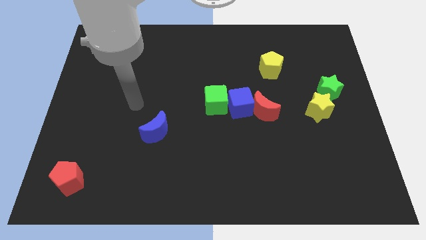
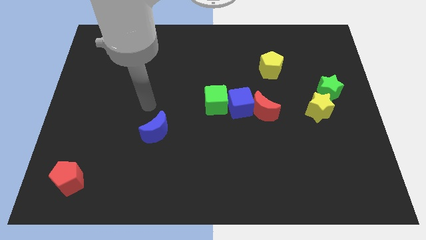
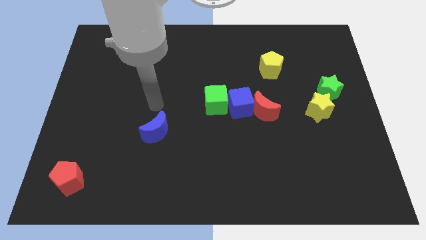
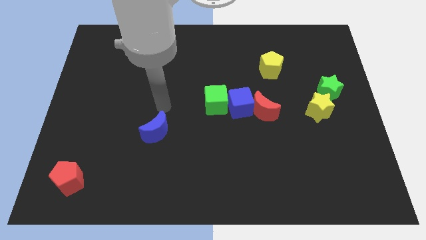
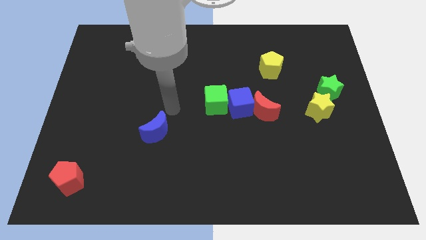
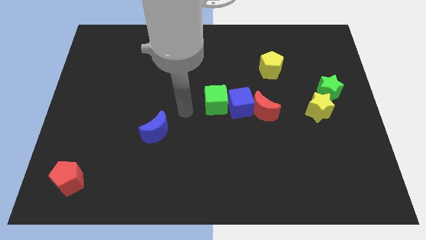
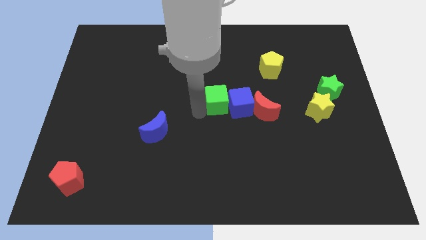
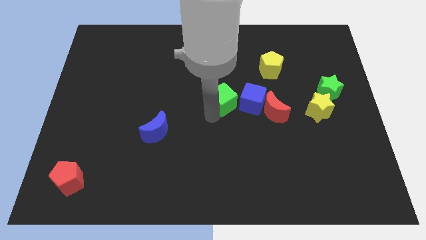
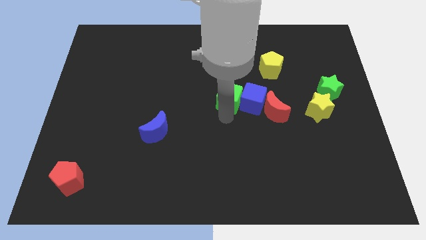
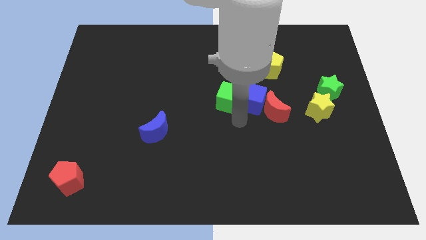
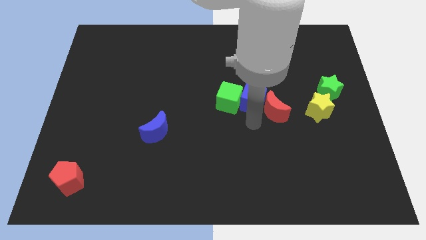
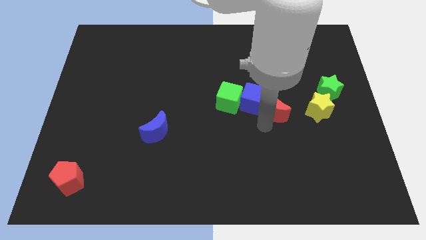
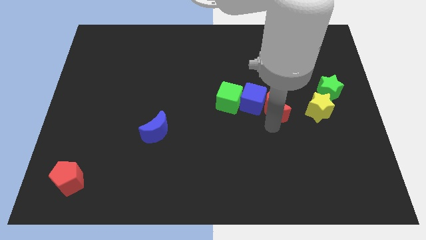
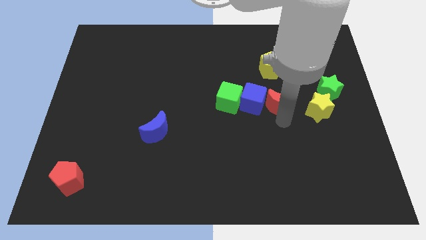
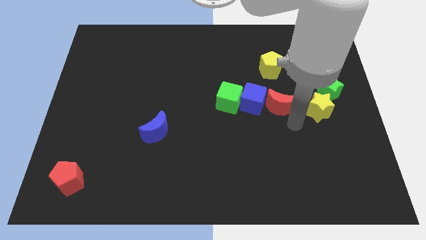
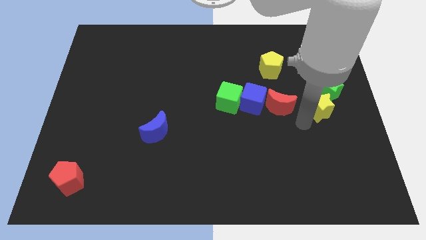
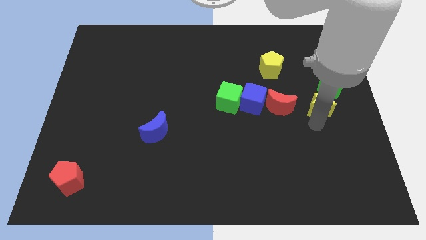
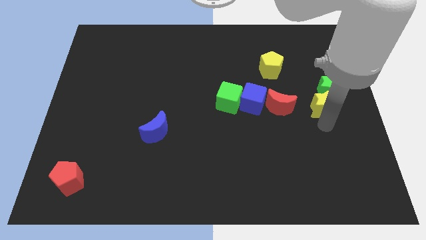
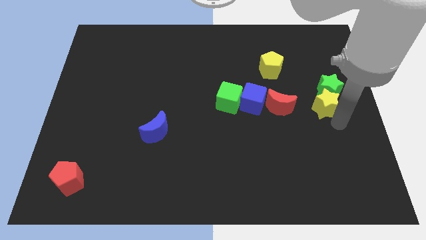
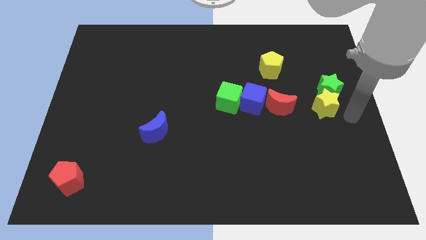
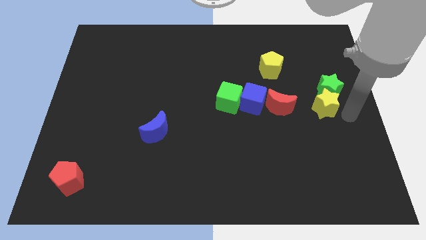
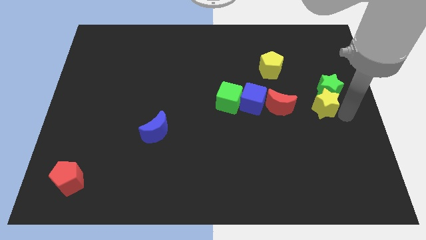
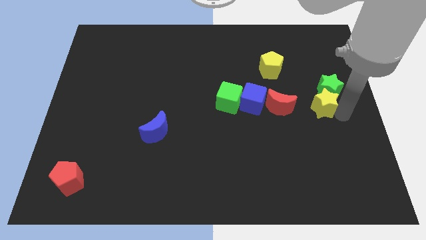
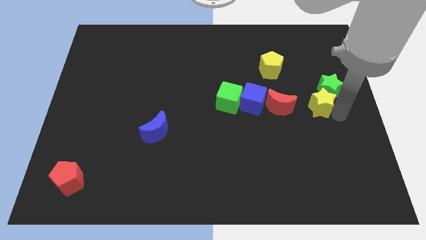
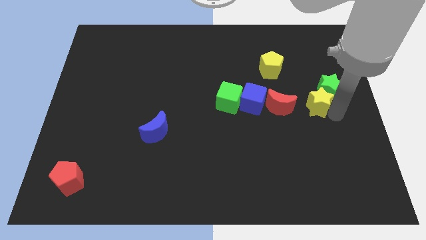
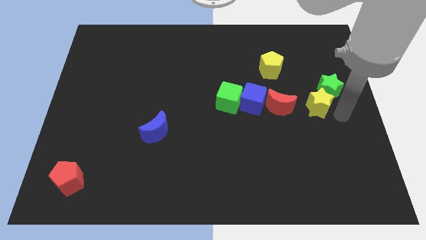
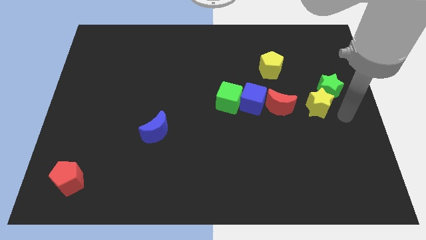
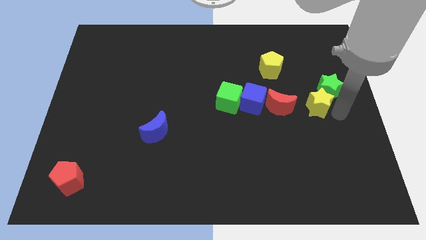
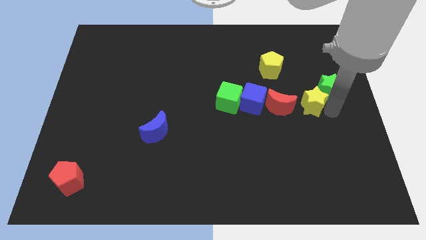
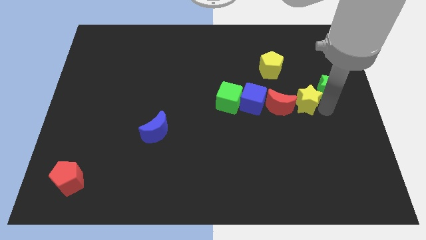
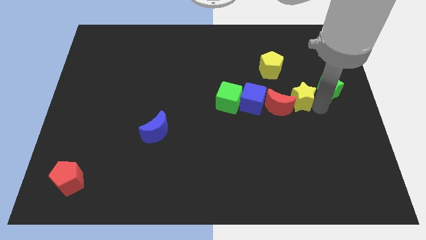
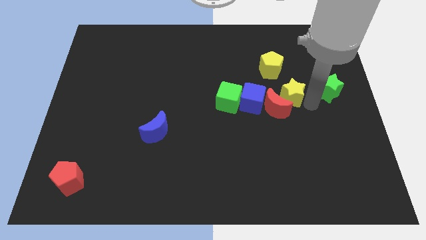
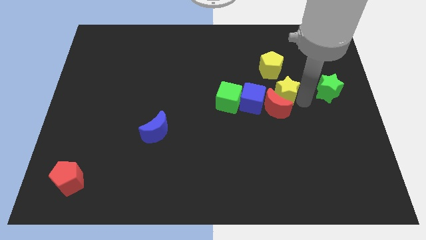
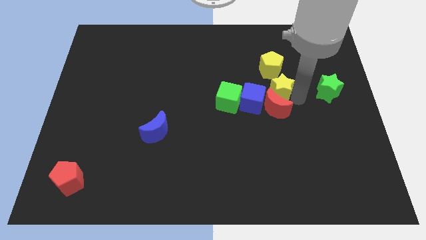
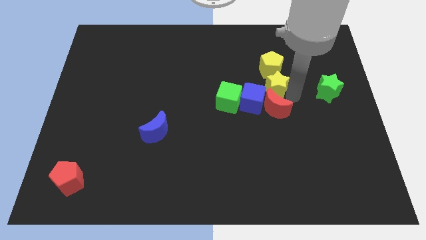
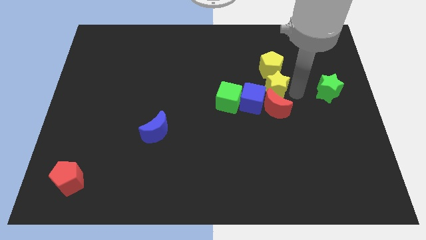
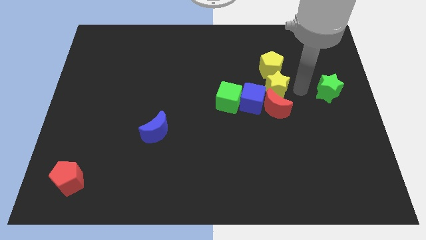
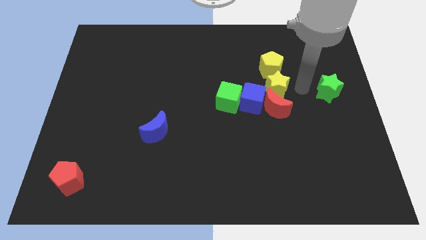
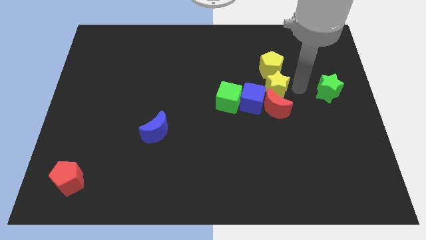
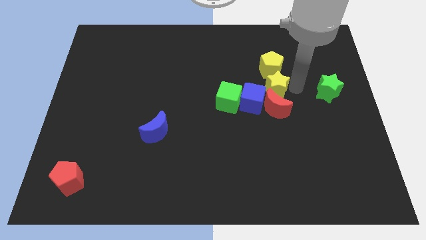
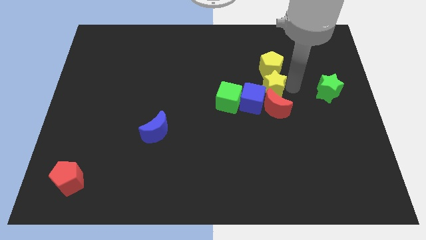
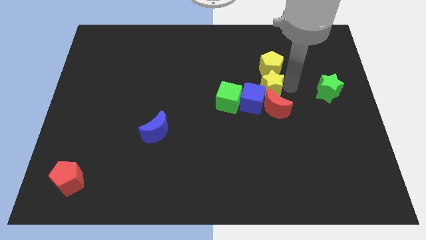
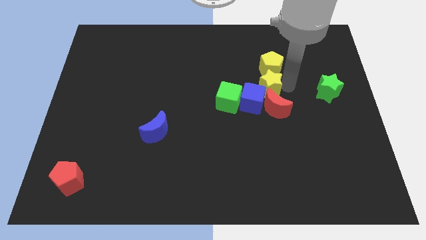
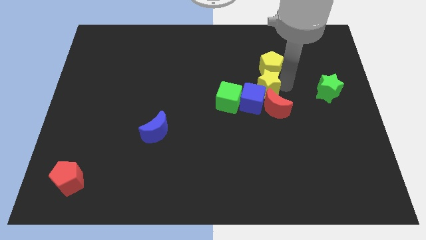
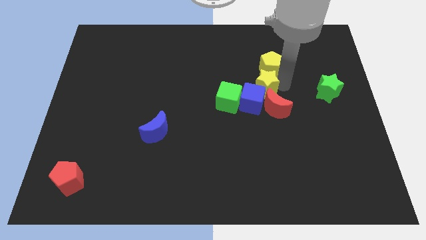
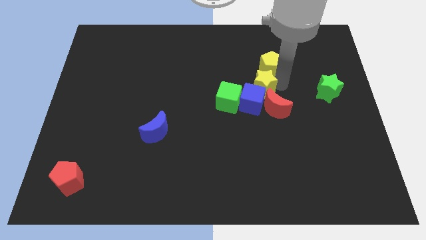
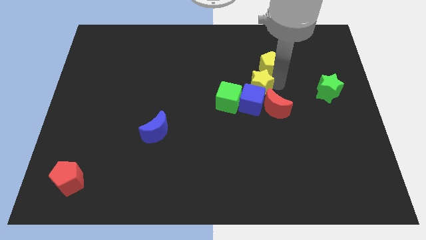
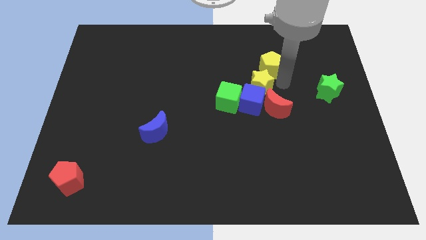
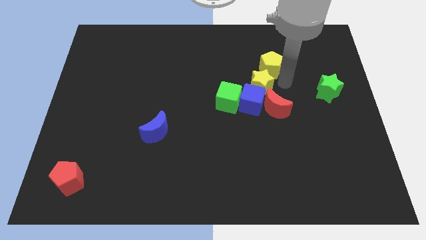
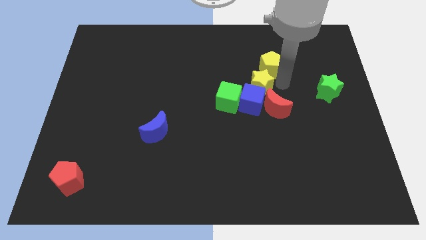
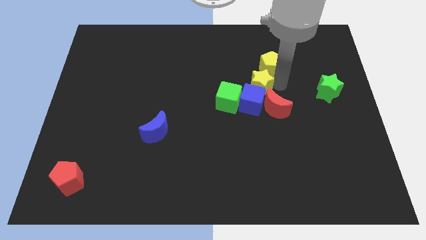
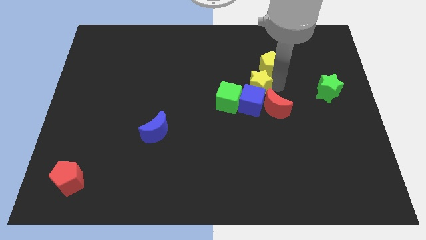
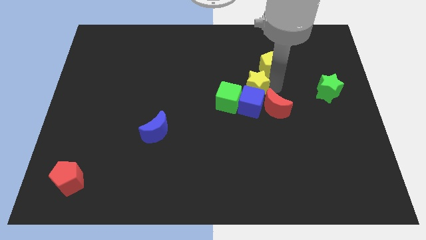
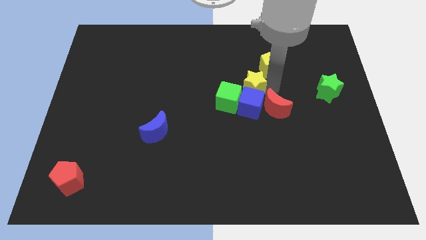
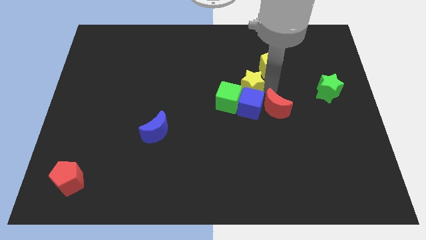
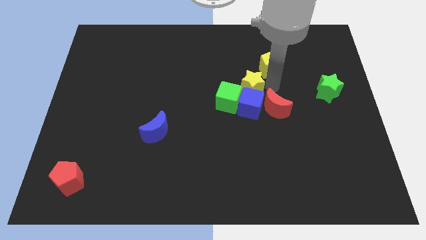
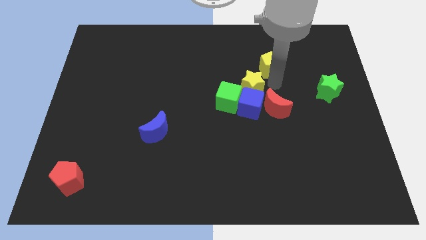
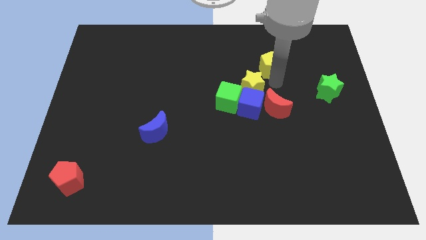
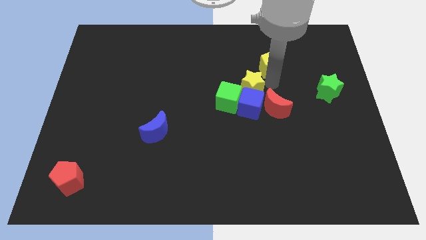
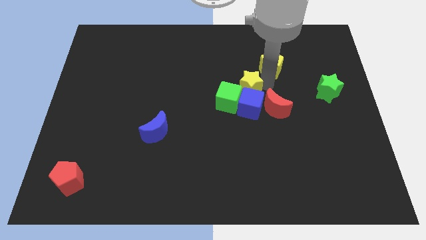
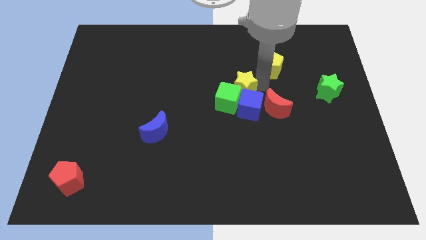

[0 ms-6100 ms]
put the yellow star to the green cube

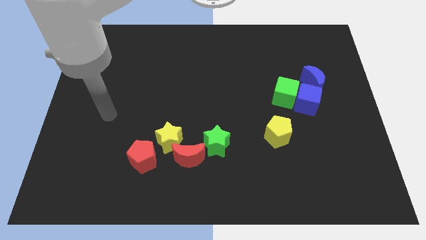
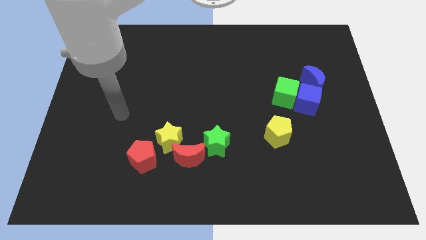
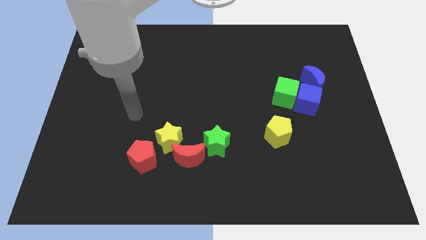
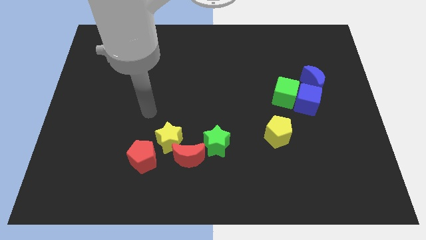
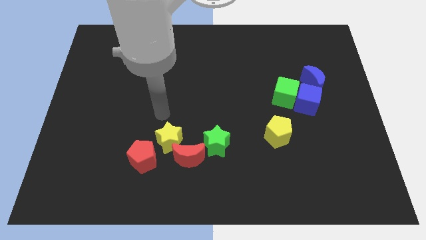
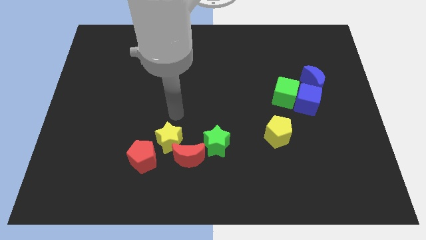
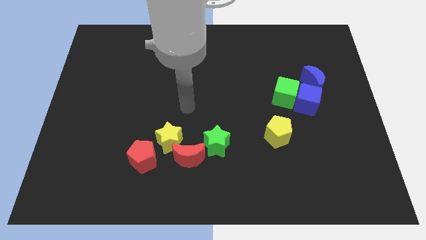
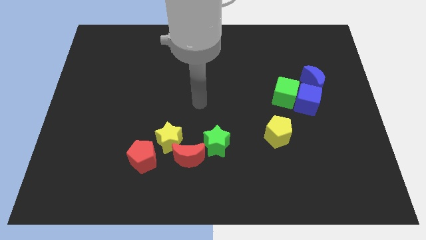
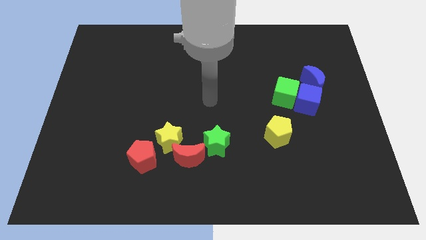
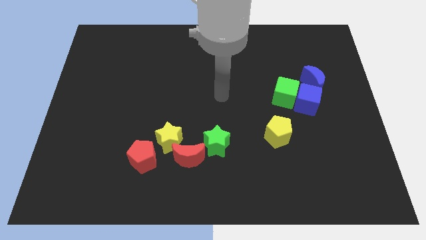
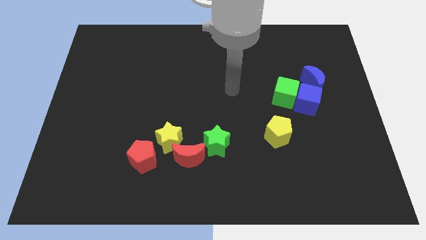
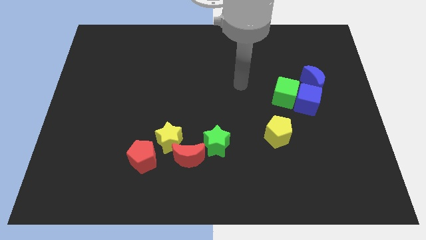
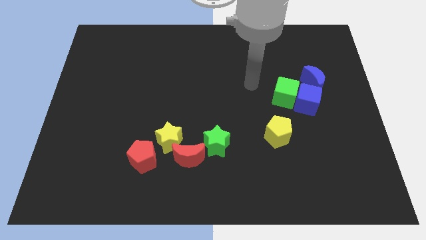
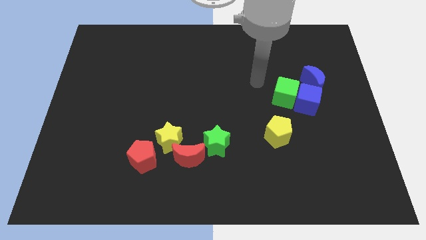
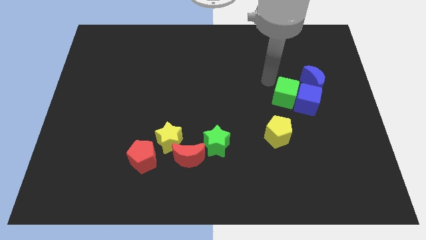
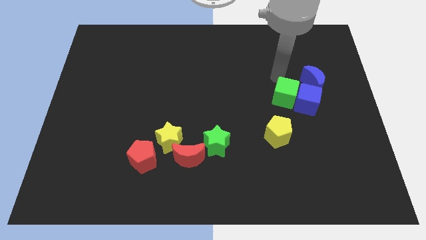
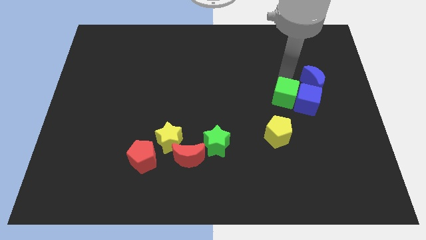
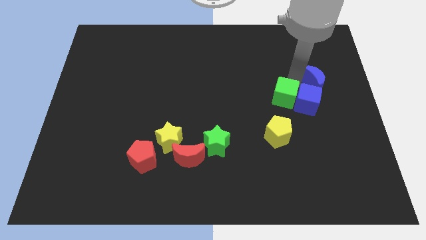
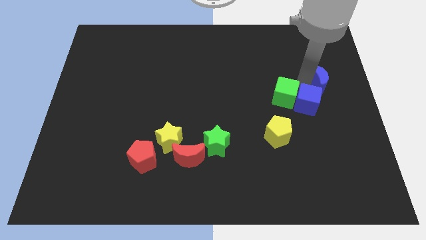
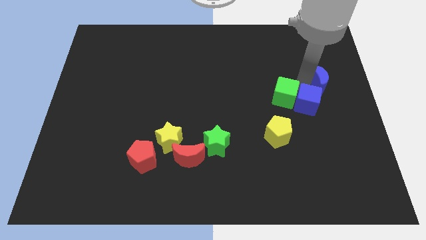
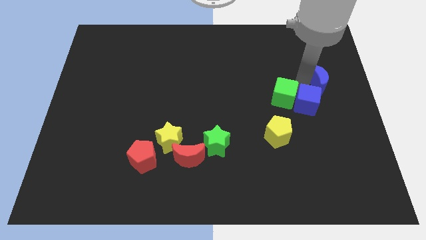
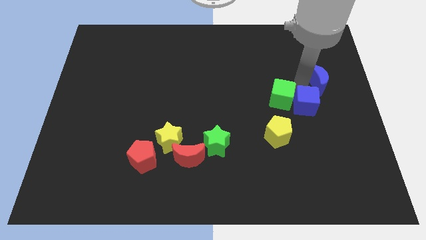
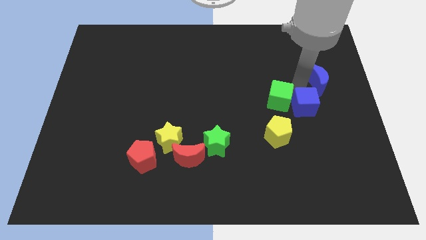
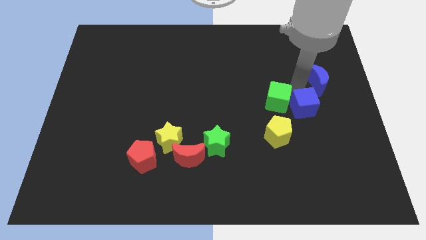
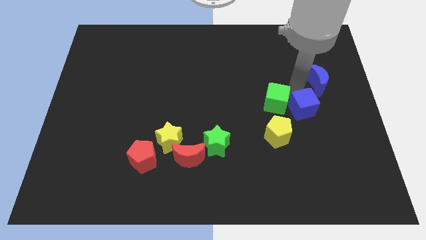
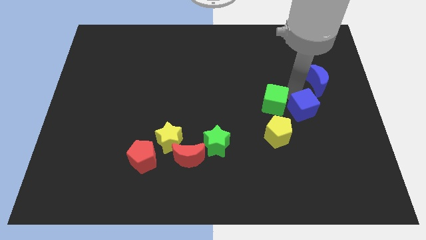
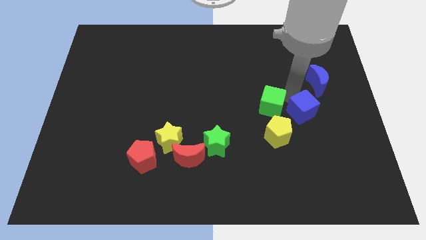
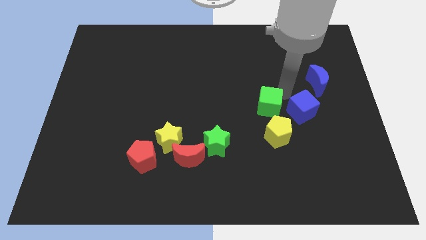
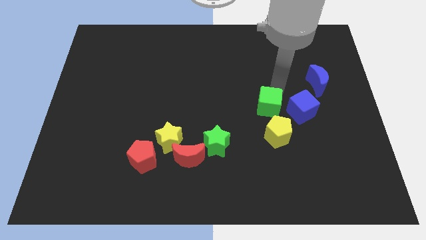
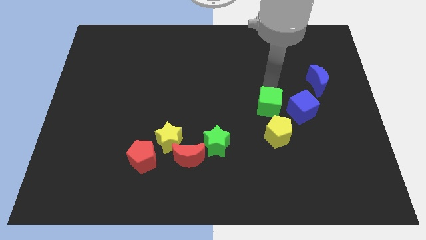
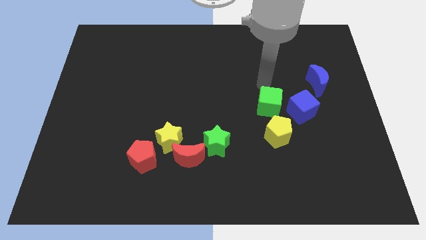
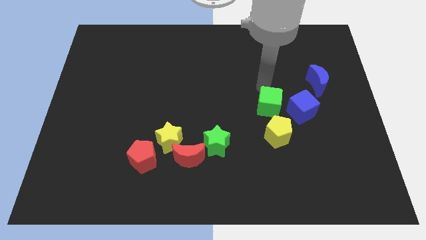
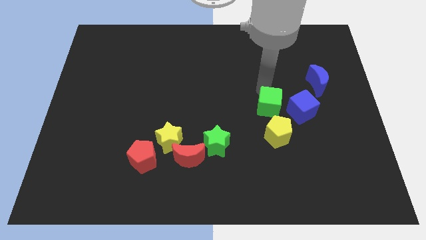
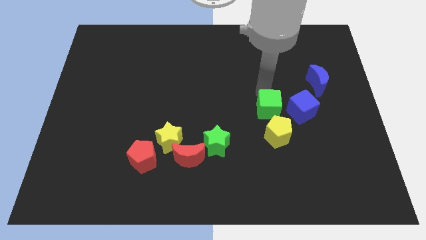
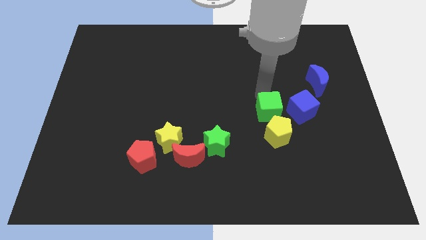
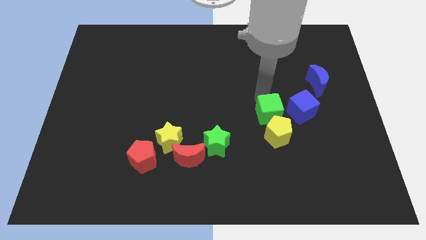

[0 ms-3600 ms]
put the green cube towards the yellow pentagon
